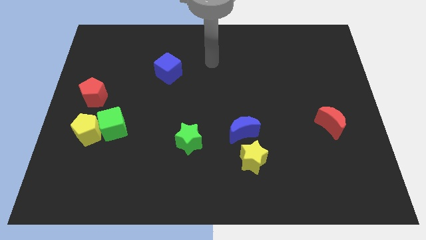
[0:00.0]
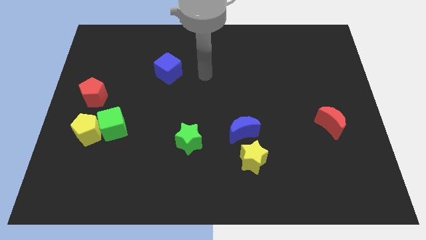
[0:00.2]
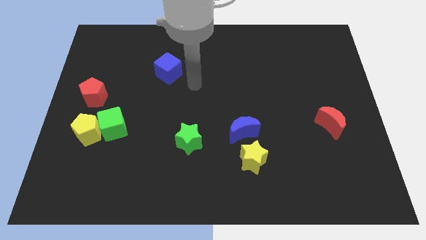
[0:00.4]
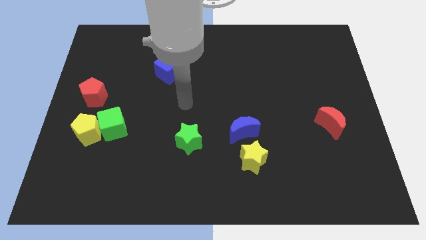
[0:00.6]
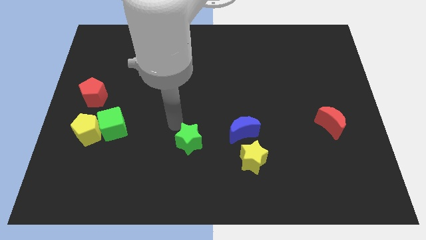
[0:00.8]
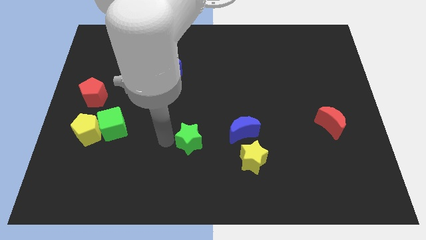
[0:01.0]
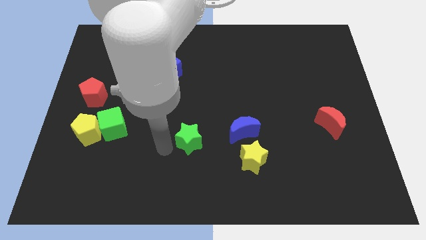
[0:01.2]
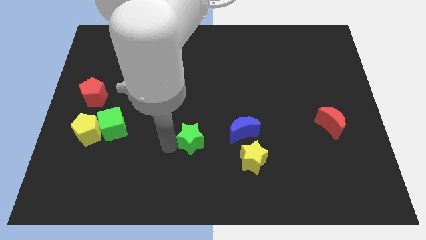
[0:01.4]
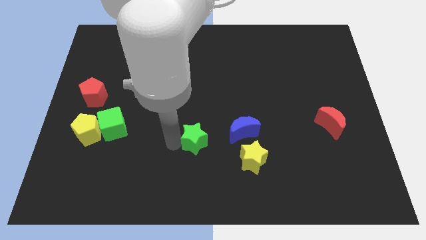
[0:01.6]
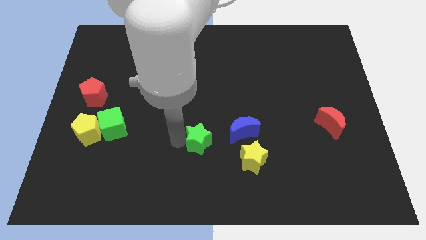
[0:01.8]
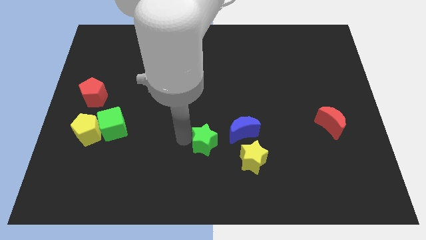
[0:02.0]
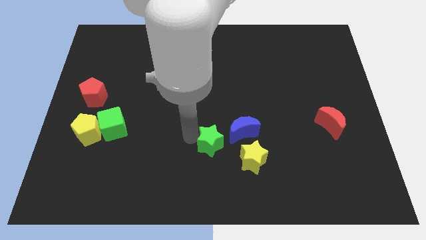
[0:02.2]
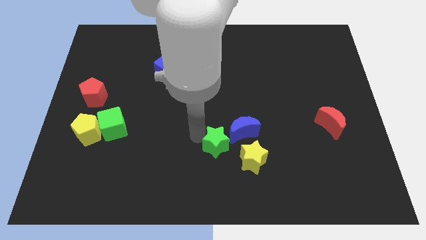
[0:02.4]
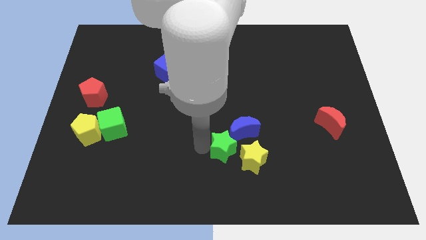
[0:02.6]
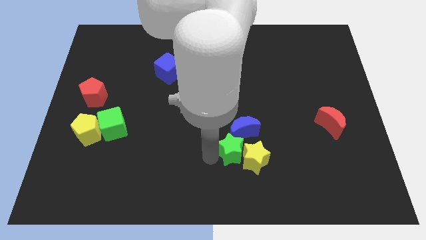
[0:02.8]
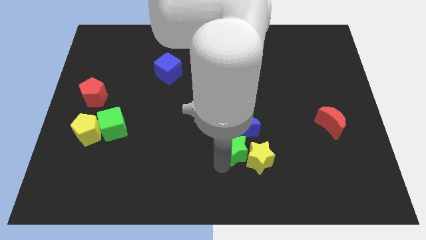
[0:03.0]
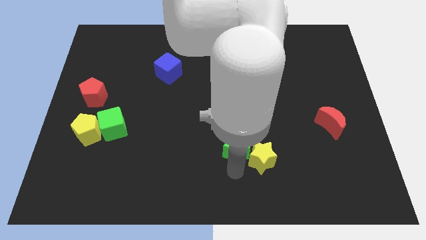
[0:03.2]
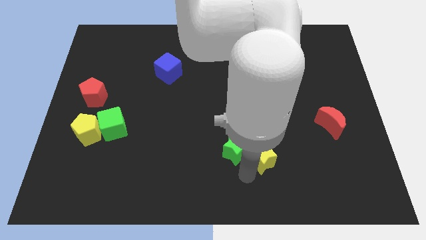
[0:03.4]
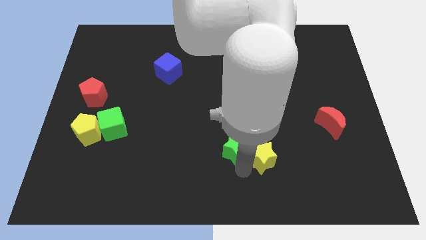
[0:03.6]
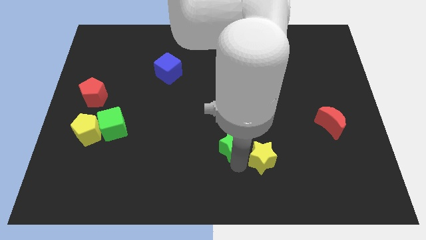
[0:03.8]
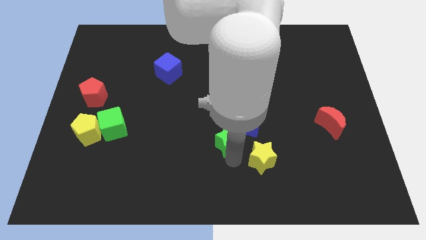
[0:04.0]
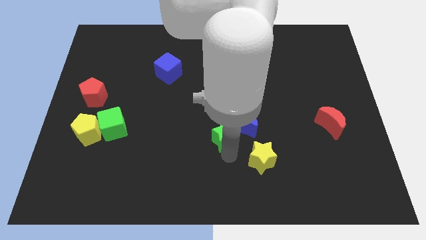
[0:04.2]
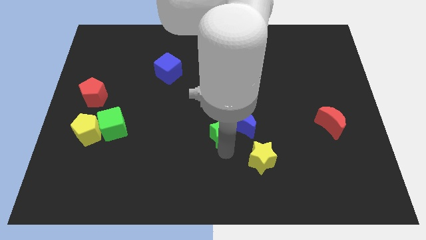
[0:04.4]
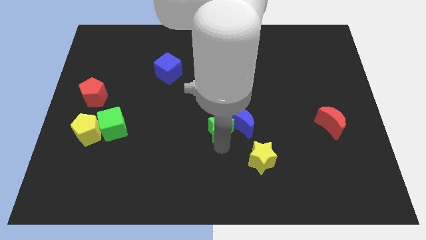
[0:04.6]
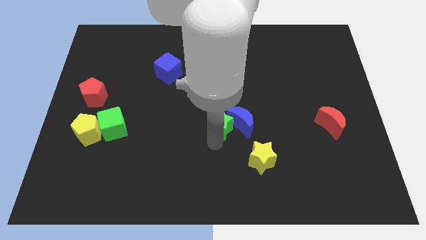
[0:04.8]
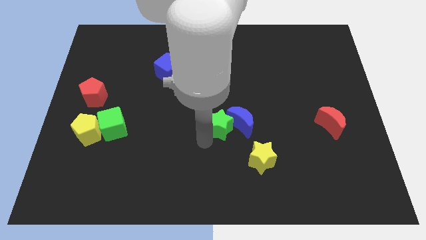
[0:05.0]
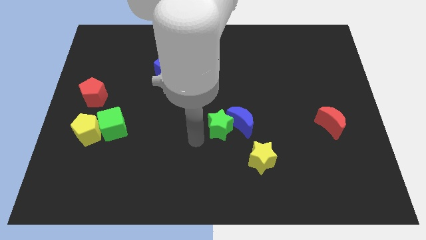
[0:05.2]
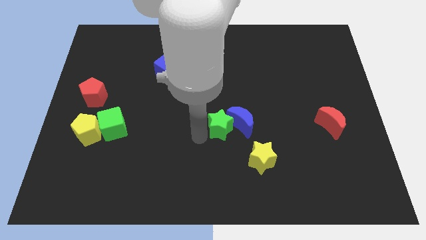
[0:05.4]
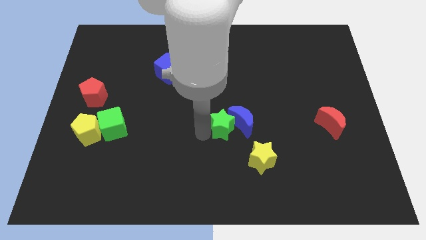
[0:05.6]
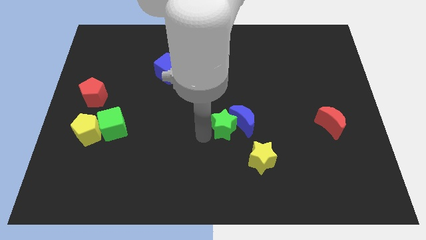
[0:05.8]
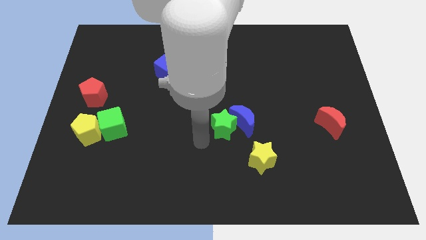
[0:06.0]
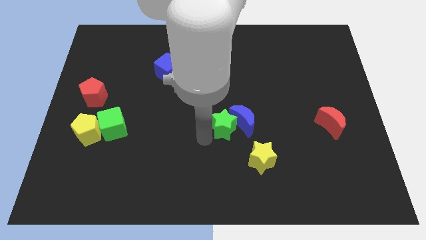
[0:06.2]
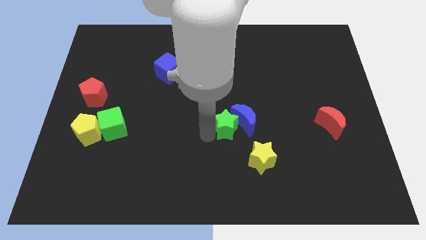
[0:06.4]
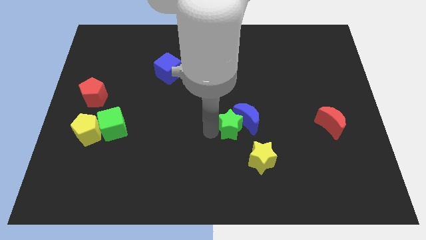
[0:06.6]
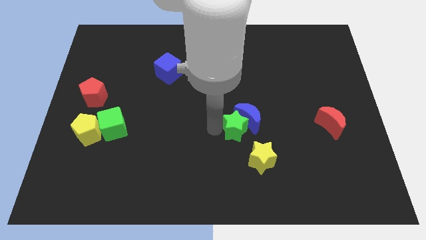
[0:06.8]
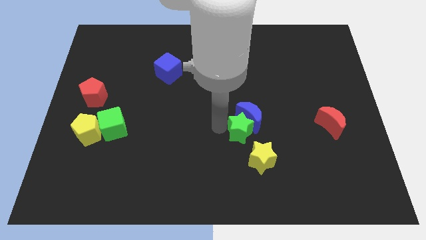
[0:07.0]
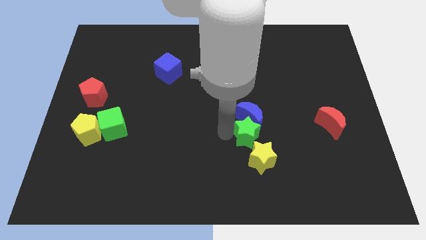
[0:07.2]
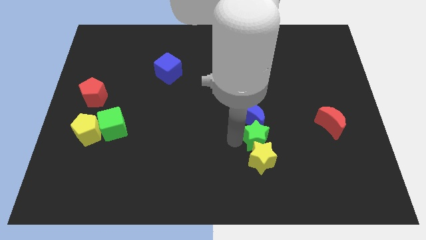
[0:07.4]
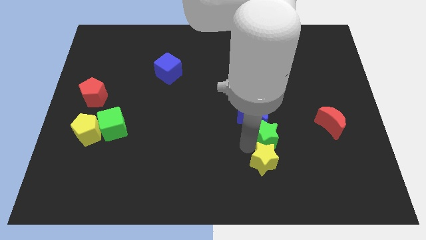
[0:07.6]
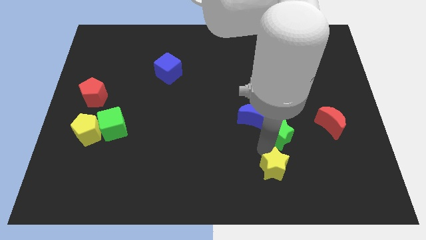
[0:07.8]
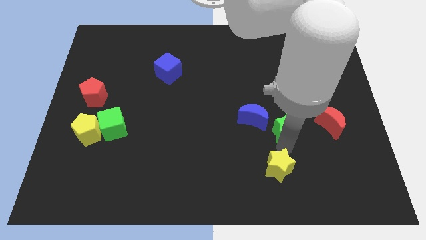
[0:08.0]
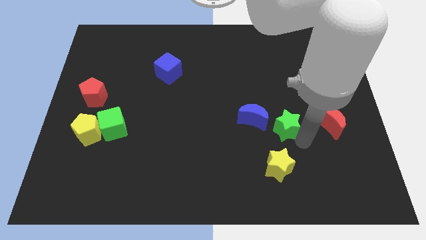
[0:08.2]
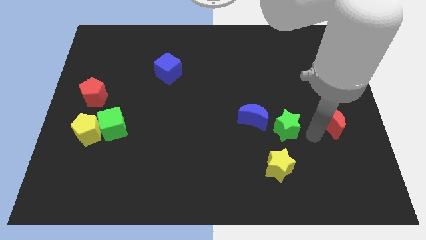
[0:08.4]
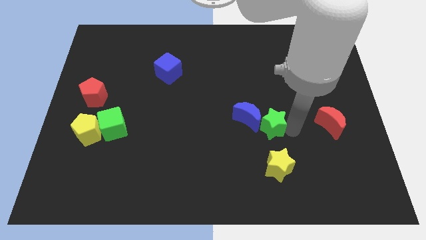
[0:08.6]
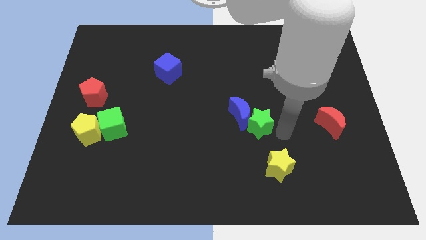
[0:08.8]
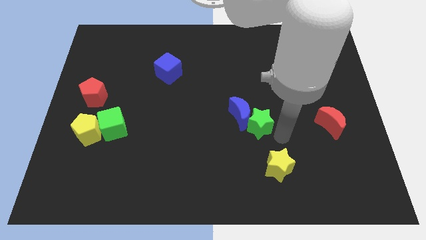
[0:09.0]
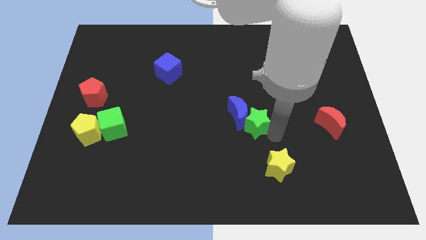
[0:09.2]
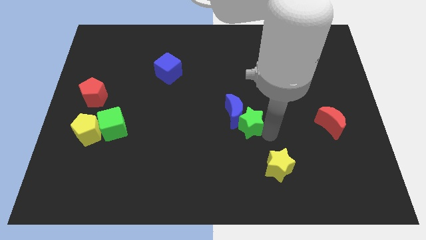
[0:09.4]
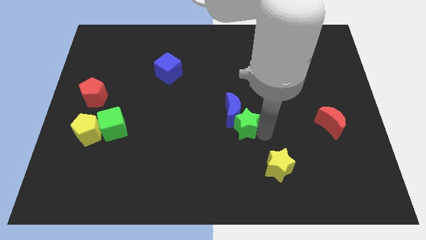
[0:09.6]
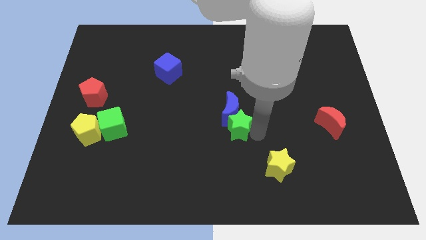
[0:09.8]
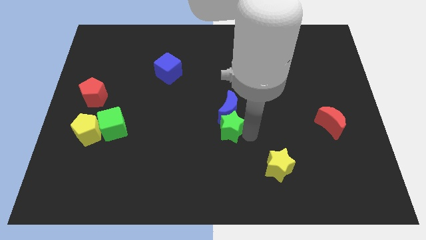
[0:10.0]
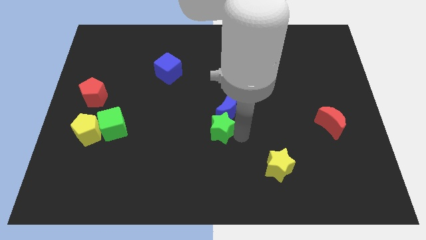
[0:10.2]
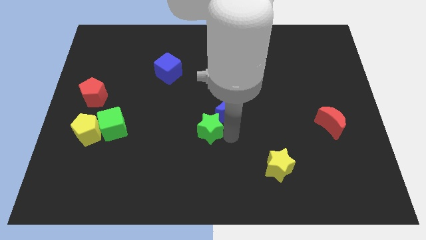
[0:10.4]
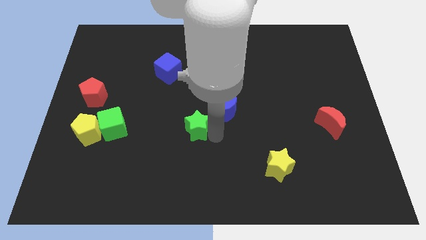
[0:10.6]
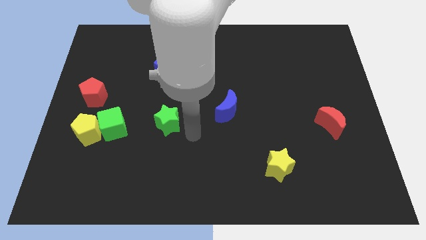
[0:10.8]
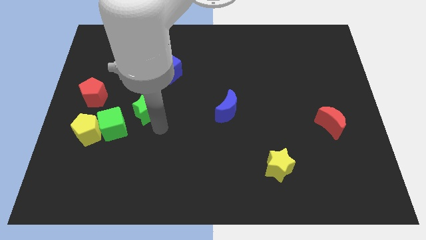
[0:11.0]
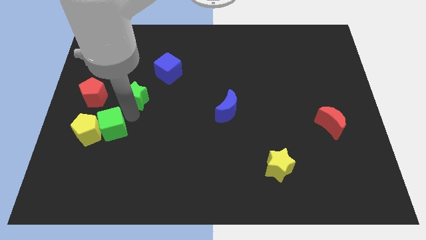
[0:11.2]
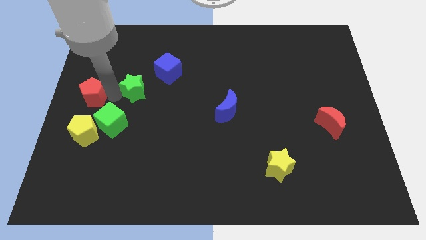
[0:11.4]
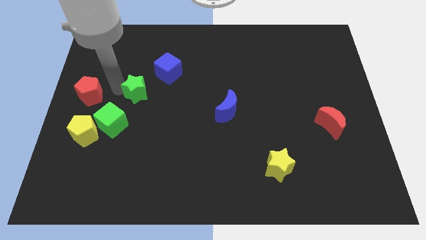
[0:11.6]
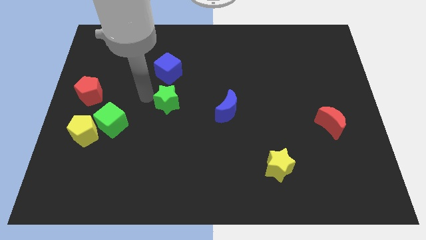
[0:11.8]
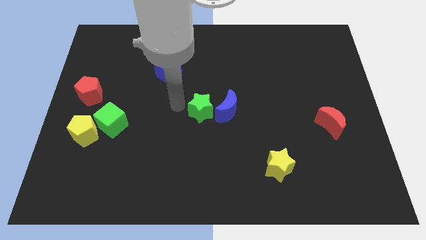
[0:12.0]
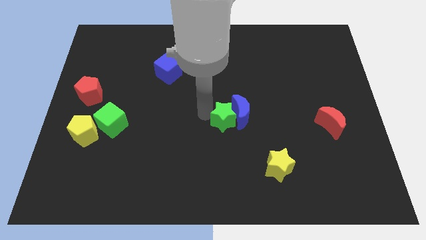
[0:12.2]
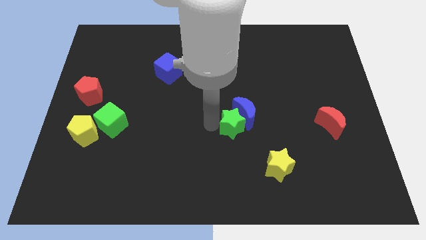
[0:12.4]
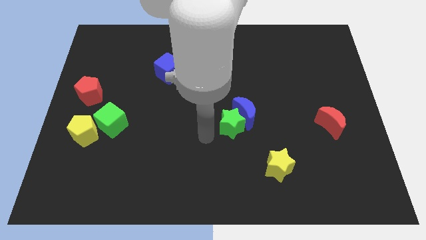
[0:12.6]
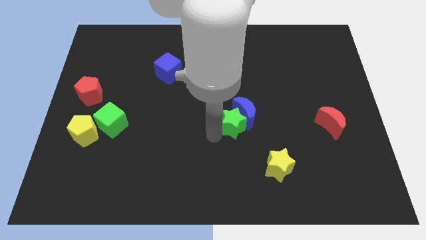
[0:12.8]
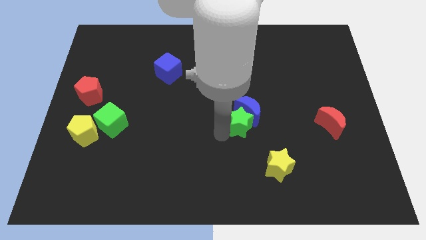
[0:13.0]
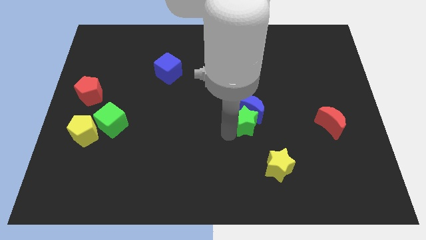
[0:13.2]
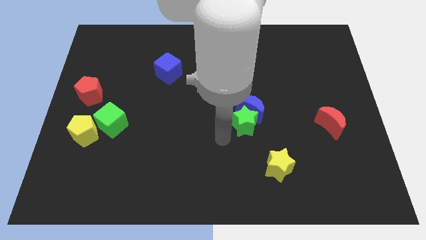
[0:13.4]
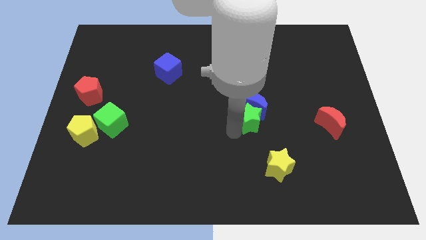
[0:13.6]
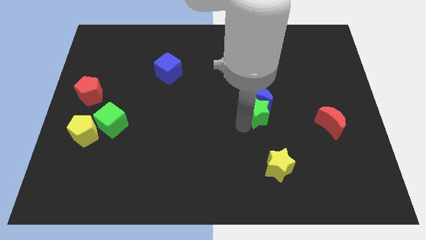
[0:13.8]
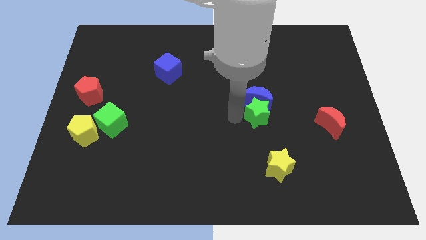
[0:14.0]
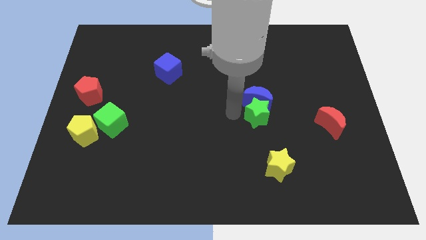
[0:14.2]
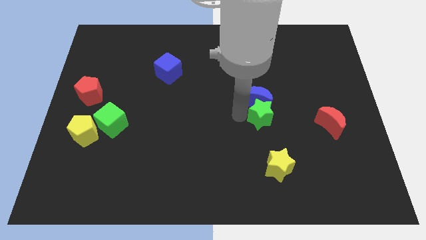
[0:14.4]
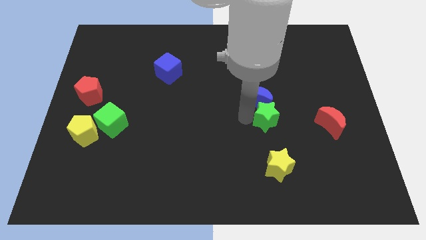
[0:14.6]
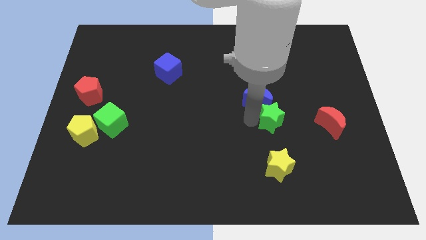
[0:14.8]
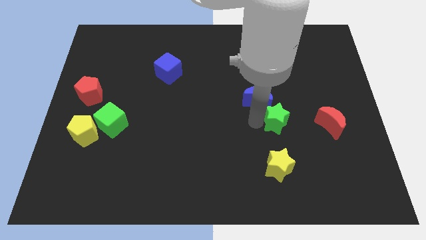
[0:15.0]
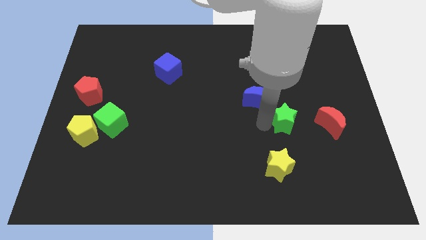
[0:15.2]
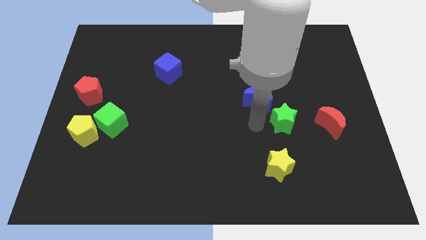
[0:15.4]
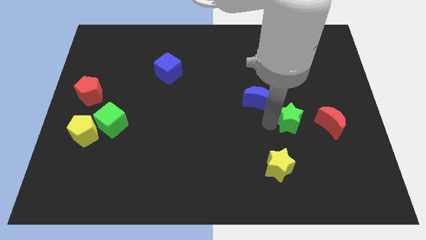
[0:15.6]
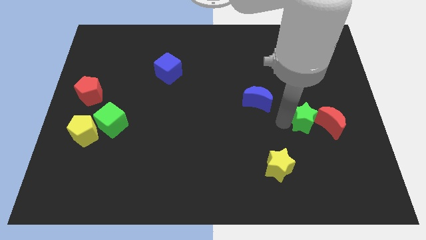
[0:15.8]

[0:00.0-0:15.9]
slide the green star towards the red moon

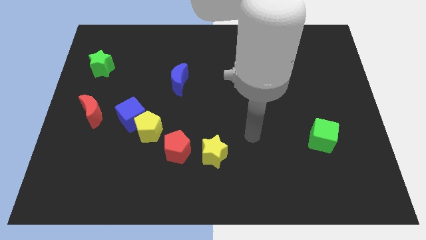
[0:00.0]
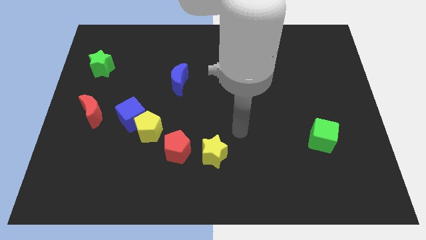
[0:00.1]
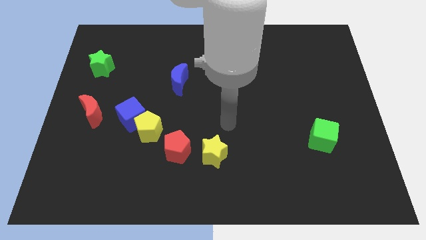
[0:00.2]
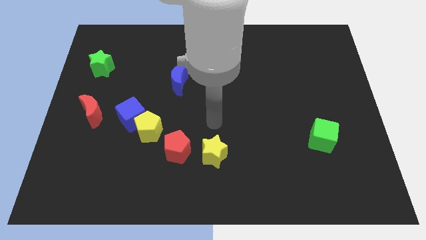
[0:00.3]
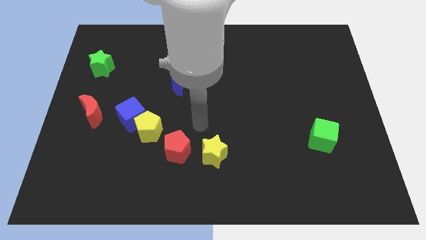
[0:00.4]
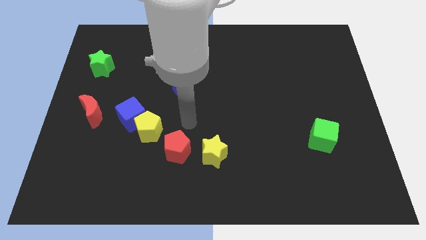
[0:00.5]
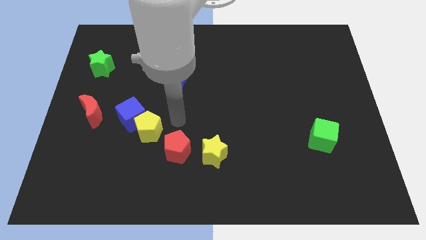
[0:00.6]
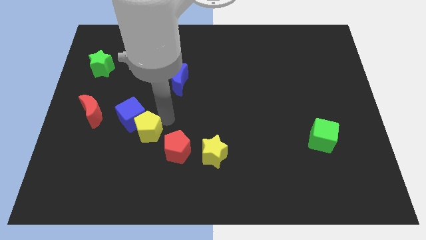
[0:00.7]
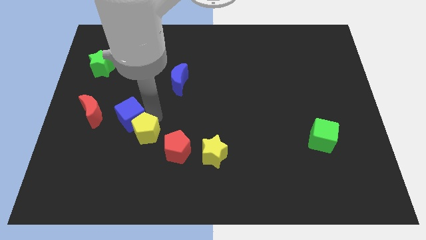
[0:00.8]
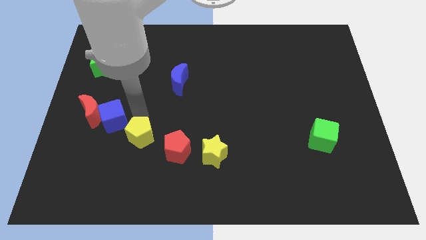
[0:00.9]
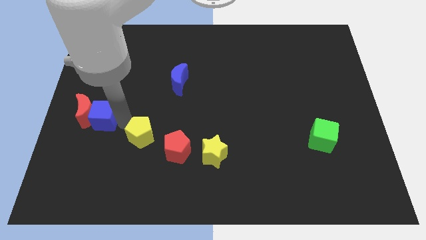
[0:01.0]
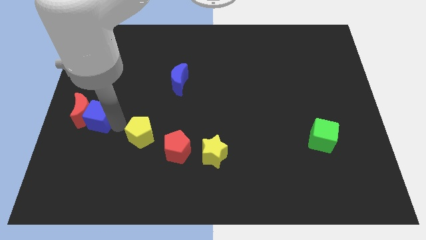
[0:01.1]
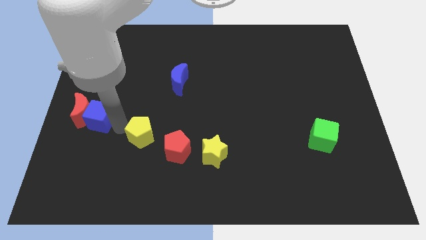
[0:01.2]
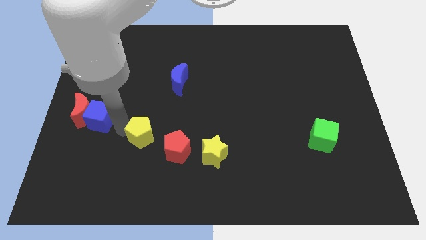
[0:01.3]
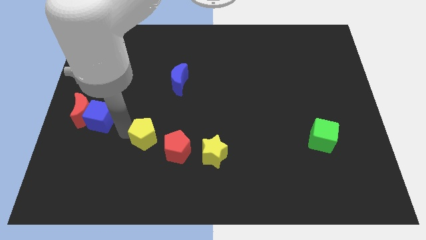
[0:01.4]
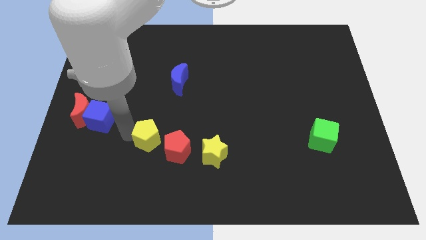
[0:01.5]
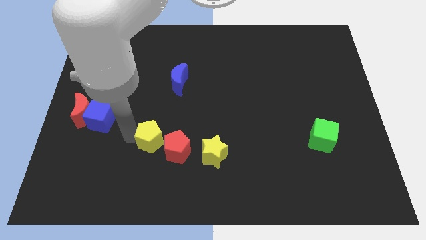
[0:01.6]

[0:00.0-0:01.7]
slide the yellow pentagon close to the red pentagon
